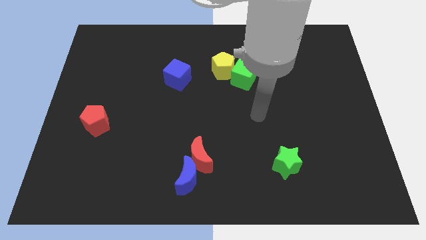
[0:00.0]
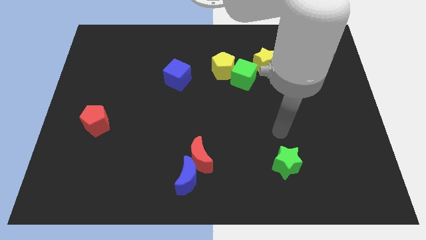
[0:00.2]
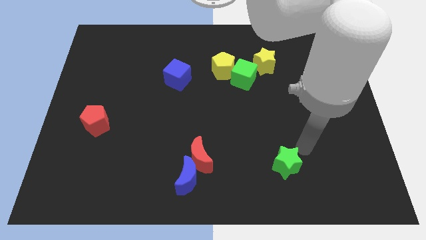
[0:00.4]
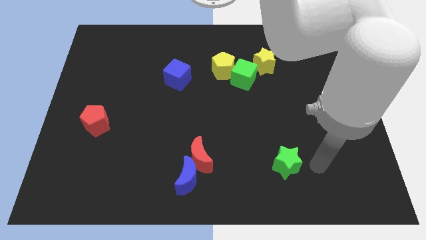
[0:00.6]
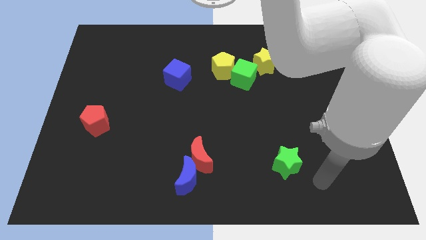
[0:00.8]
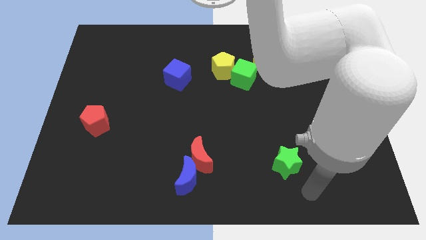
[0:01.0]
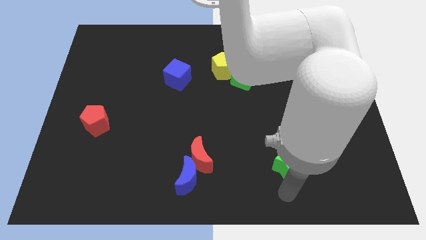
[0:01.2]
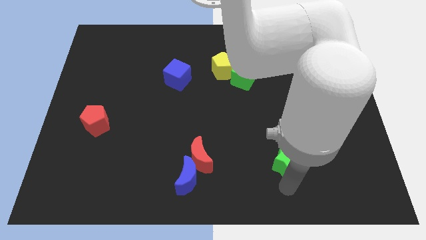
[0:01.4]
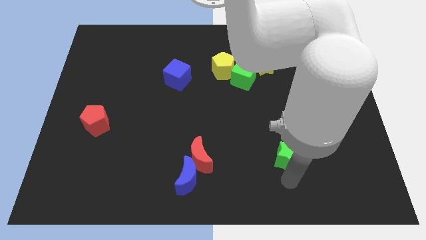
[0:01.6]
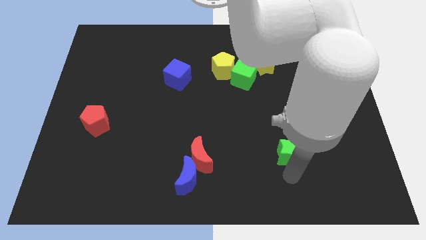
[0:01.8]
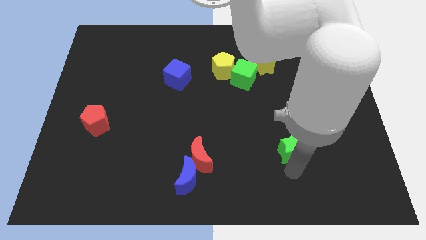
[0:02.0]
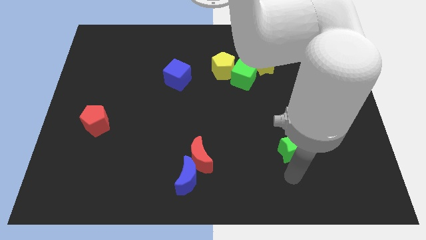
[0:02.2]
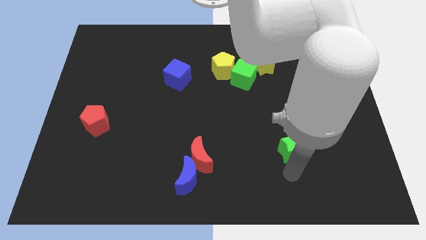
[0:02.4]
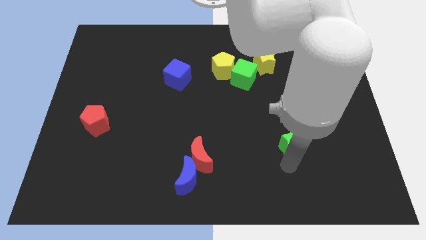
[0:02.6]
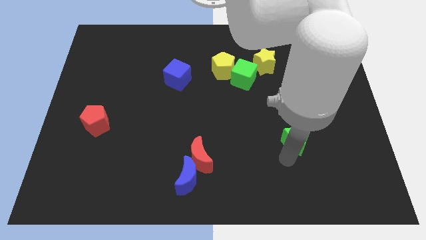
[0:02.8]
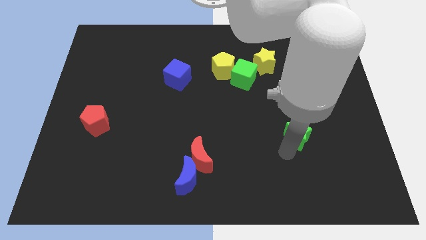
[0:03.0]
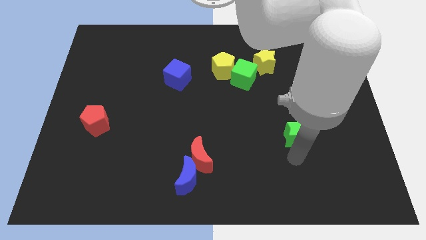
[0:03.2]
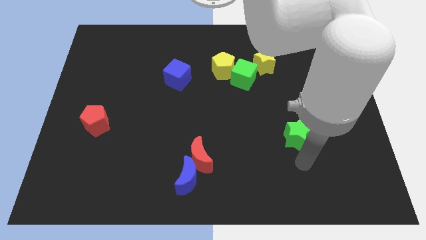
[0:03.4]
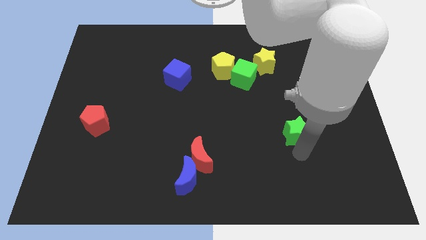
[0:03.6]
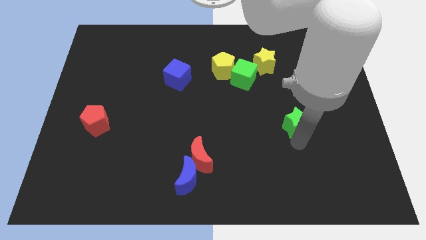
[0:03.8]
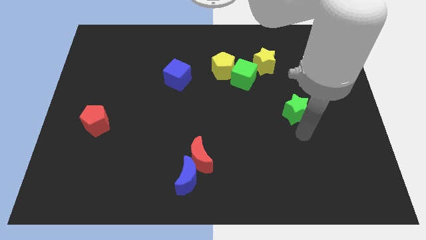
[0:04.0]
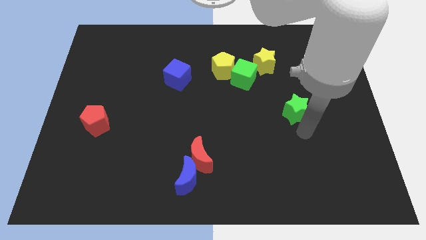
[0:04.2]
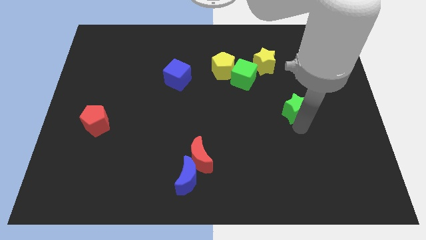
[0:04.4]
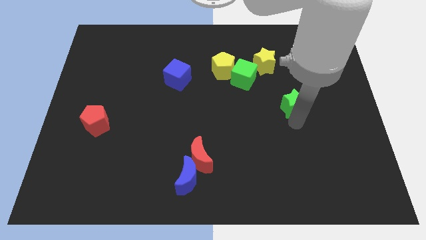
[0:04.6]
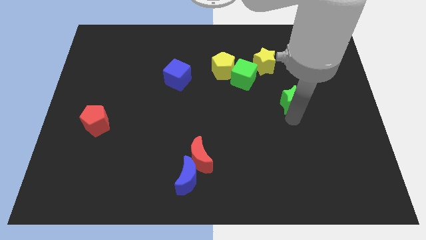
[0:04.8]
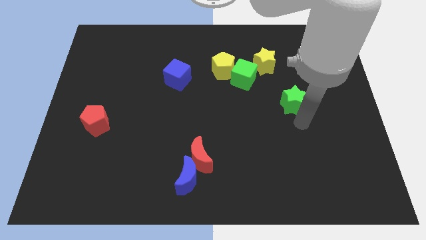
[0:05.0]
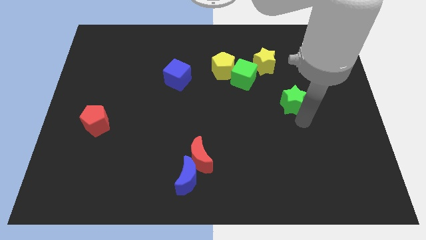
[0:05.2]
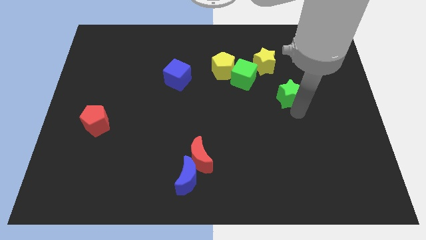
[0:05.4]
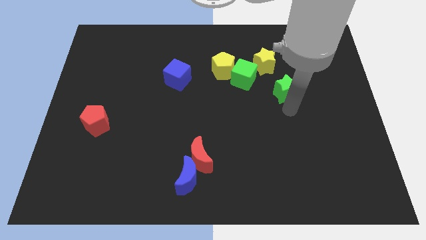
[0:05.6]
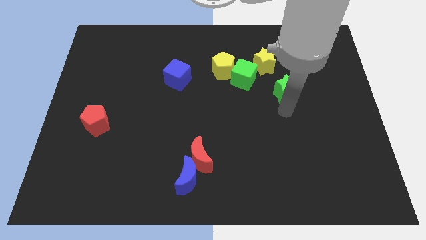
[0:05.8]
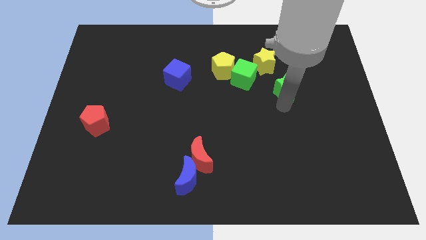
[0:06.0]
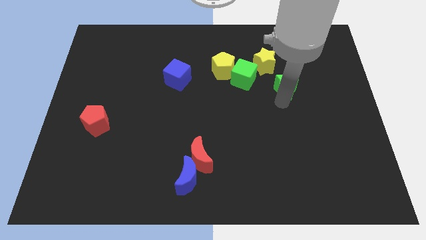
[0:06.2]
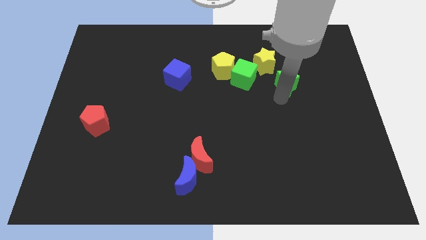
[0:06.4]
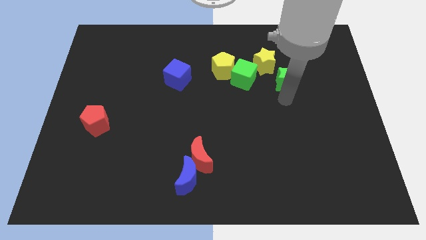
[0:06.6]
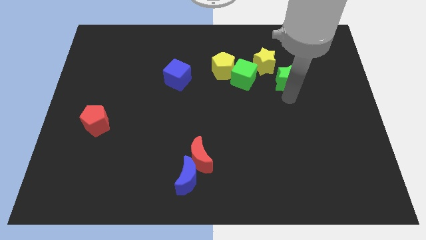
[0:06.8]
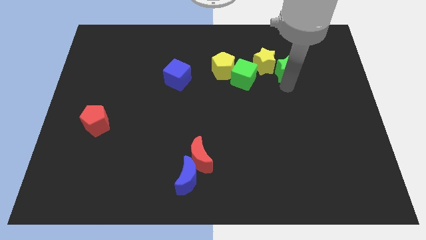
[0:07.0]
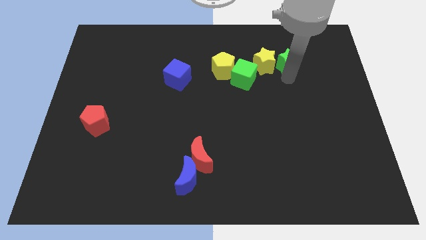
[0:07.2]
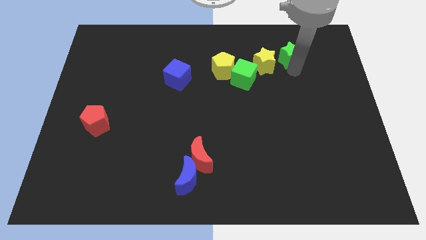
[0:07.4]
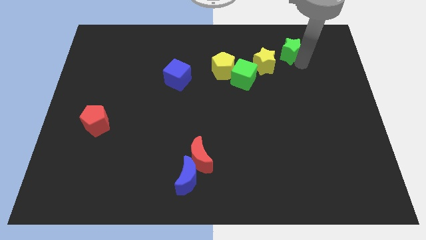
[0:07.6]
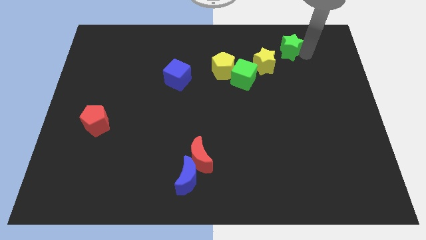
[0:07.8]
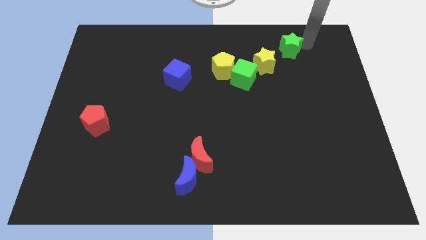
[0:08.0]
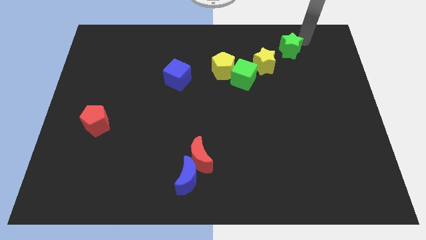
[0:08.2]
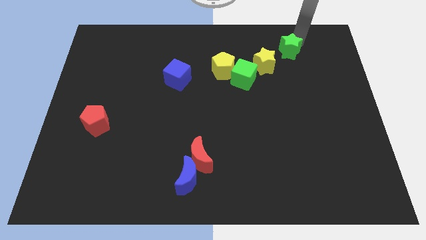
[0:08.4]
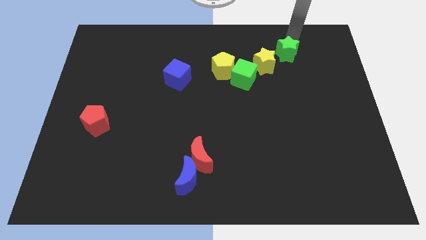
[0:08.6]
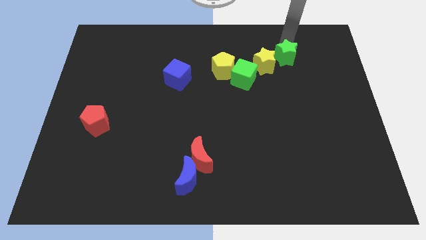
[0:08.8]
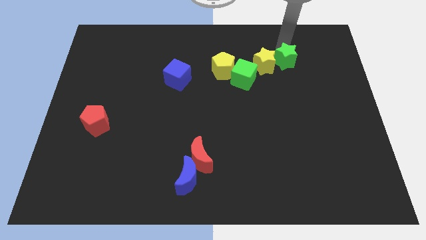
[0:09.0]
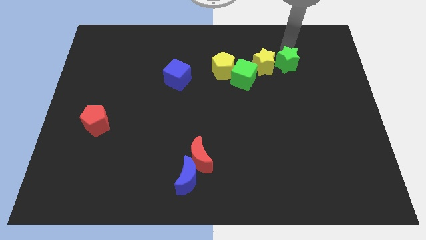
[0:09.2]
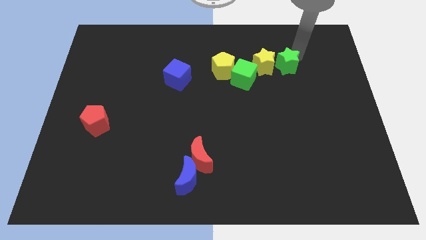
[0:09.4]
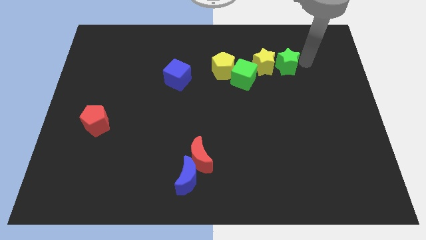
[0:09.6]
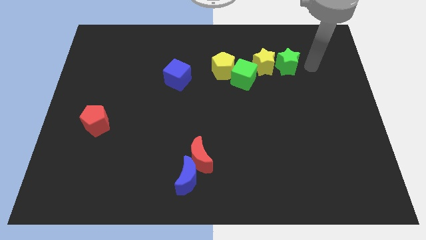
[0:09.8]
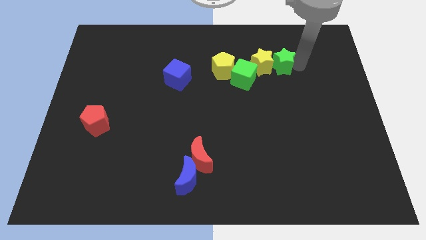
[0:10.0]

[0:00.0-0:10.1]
slide the green star diagonally up and to the right of the green cube

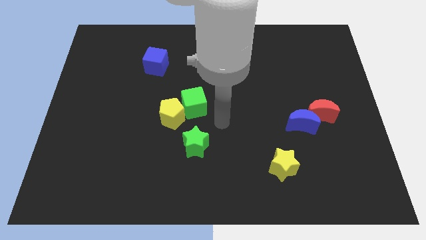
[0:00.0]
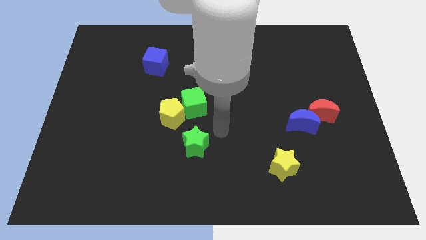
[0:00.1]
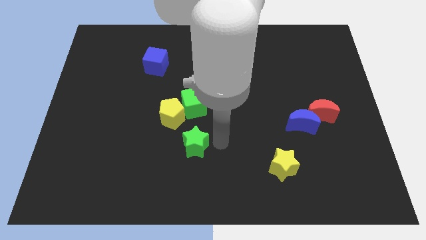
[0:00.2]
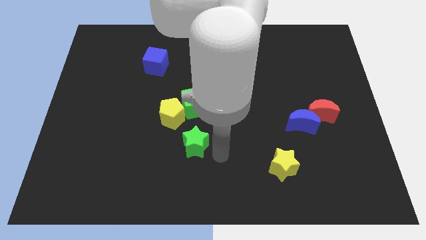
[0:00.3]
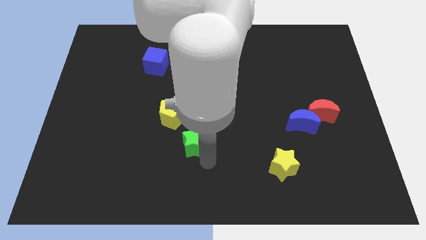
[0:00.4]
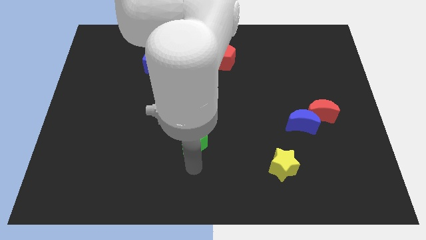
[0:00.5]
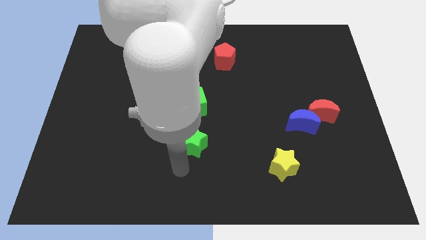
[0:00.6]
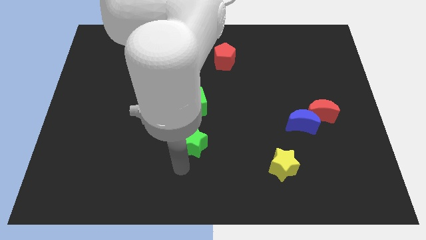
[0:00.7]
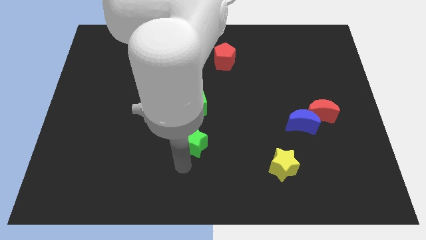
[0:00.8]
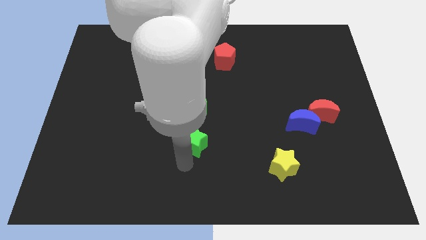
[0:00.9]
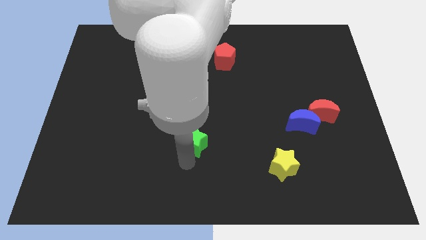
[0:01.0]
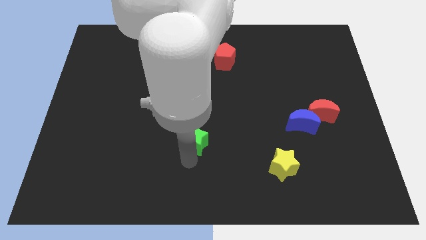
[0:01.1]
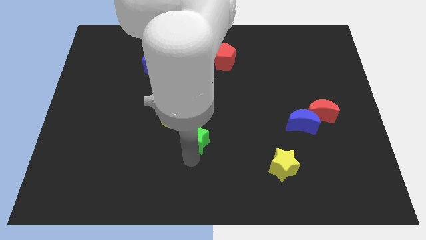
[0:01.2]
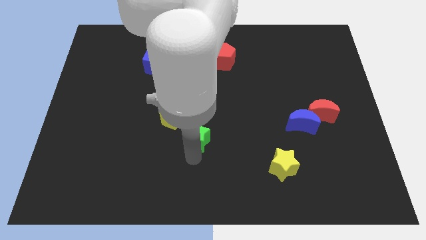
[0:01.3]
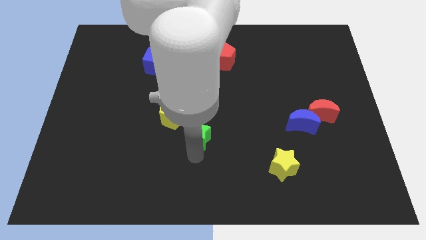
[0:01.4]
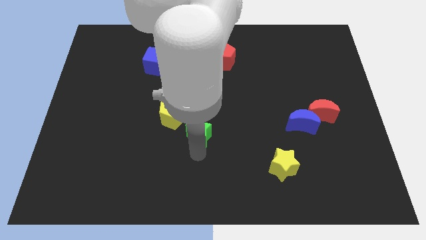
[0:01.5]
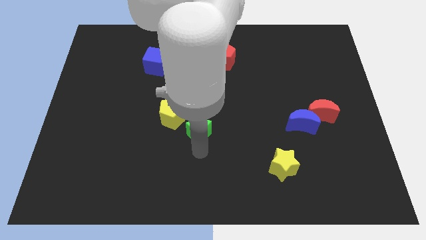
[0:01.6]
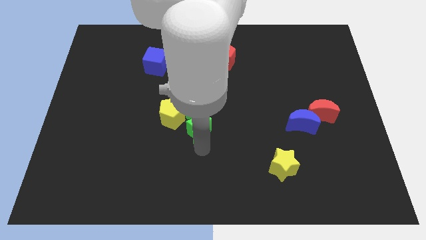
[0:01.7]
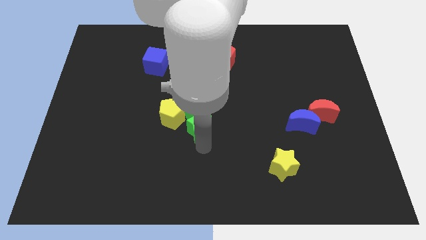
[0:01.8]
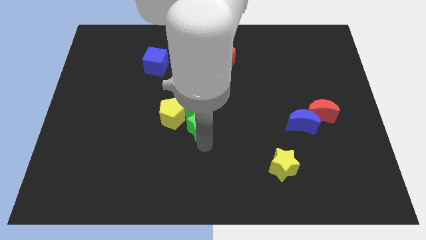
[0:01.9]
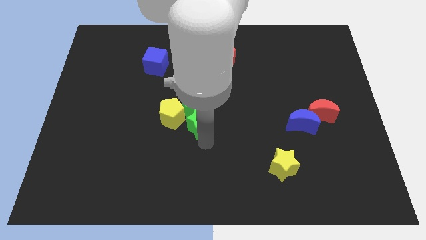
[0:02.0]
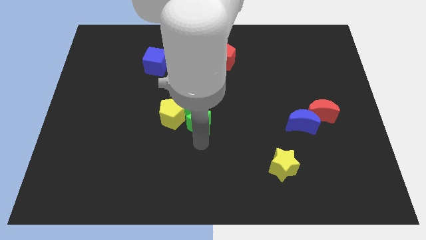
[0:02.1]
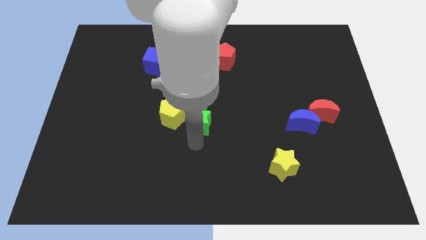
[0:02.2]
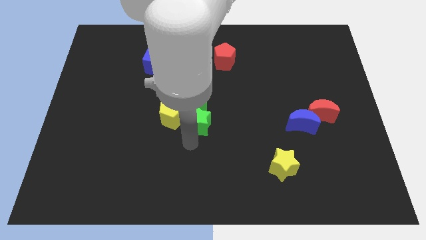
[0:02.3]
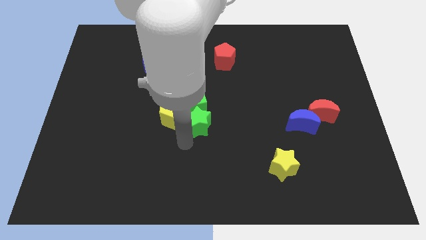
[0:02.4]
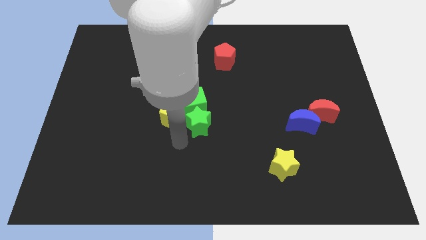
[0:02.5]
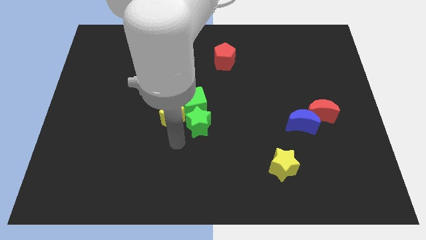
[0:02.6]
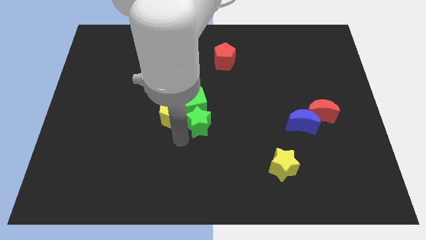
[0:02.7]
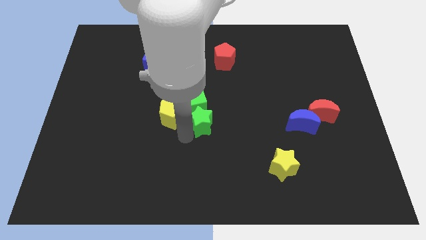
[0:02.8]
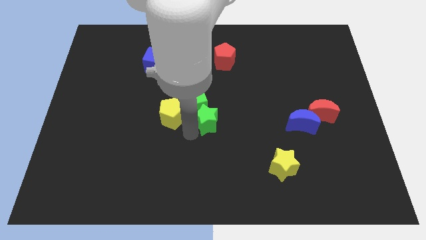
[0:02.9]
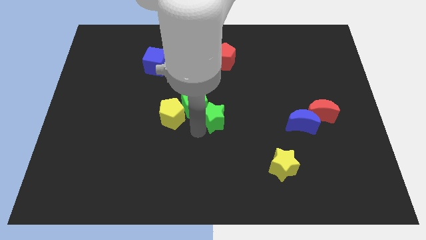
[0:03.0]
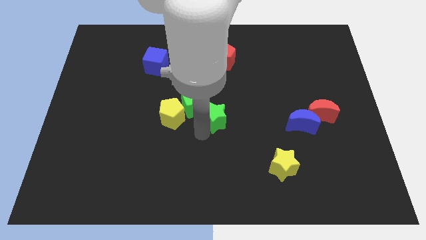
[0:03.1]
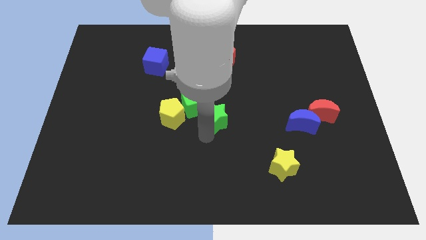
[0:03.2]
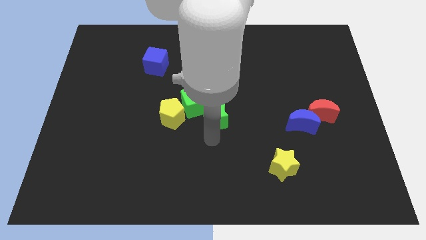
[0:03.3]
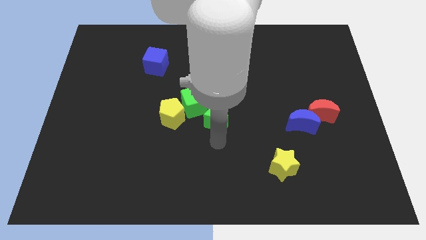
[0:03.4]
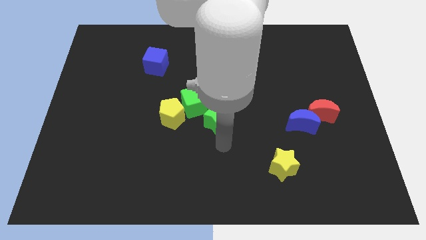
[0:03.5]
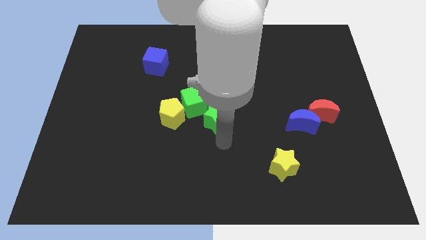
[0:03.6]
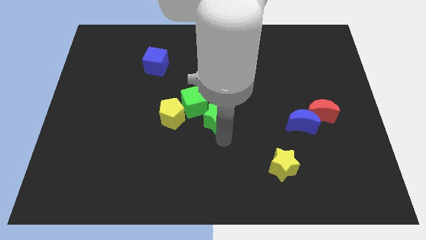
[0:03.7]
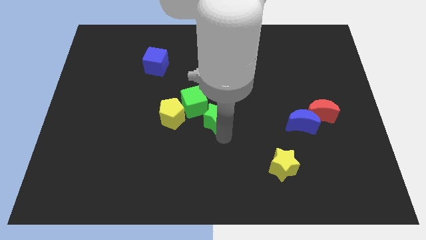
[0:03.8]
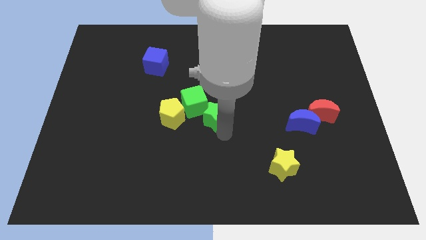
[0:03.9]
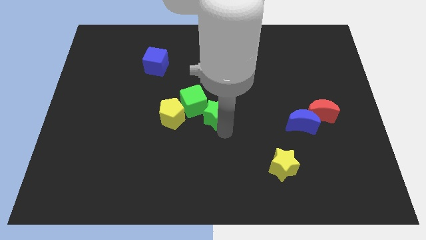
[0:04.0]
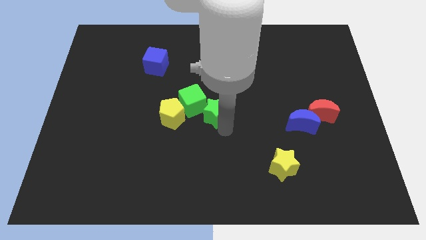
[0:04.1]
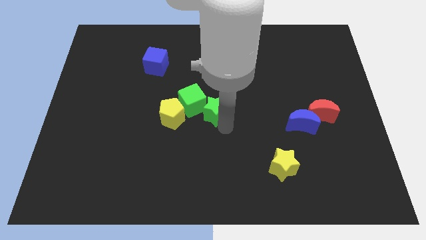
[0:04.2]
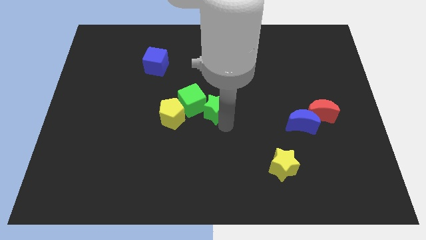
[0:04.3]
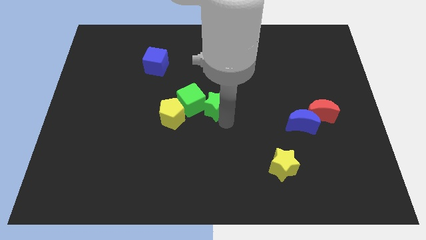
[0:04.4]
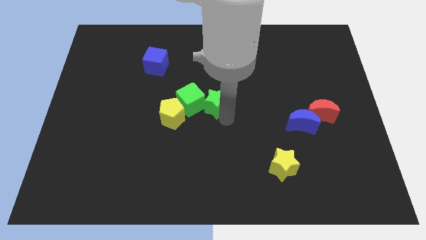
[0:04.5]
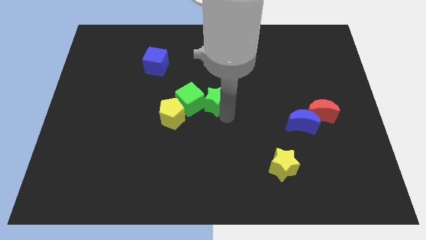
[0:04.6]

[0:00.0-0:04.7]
push the green star diagonally up and to the right of the green cube
